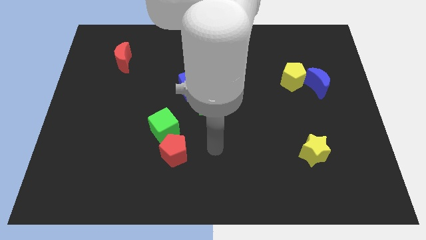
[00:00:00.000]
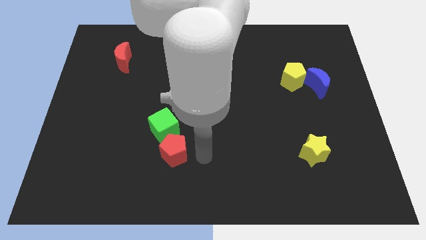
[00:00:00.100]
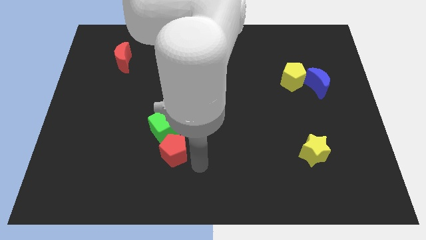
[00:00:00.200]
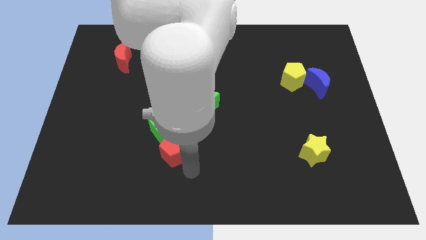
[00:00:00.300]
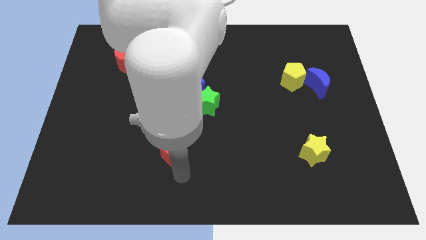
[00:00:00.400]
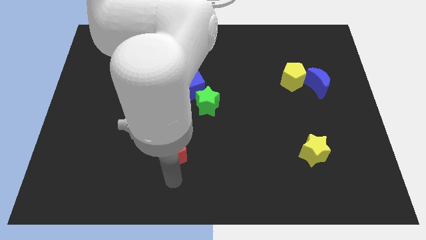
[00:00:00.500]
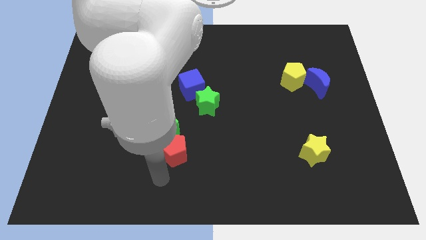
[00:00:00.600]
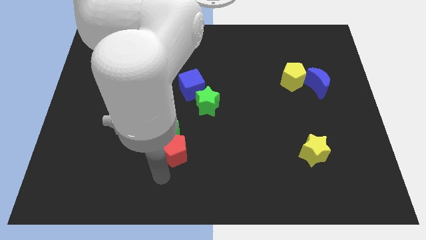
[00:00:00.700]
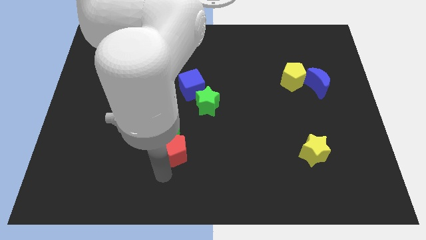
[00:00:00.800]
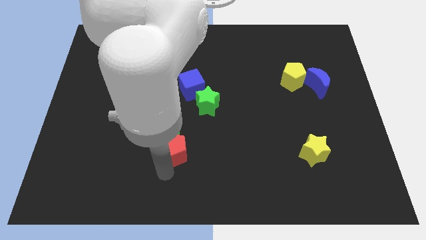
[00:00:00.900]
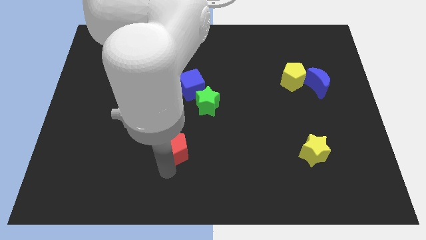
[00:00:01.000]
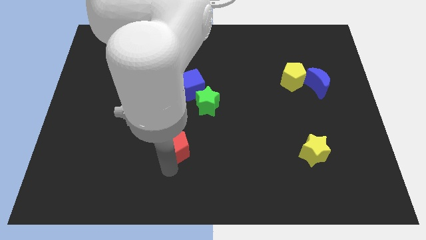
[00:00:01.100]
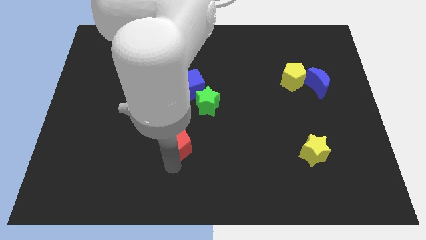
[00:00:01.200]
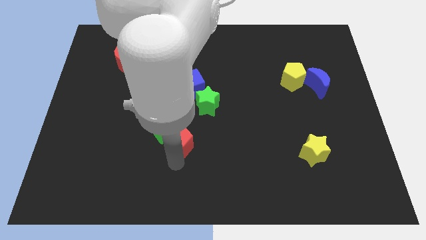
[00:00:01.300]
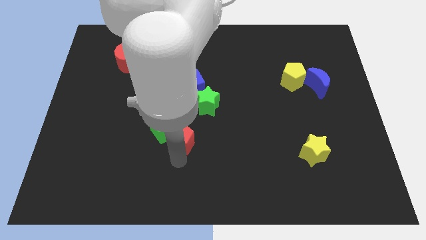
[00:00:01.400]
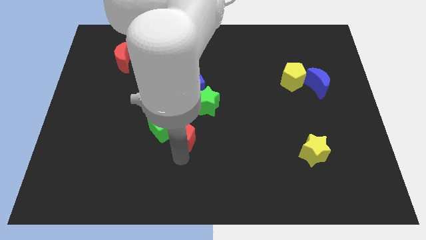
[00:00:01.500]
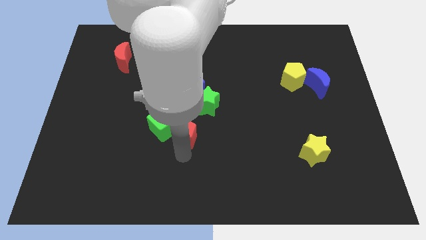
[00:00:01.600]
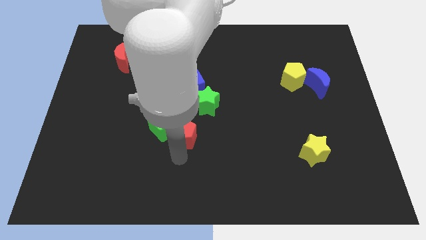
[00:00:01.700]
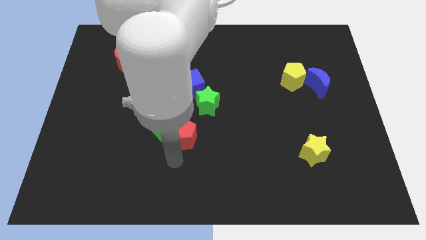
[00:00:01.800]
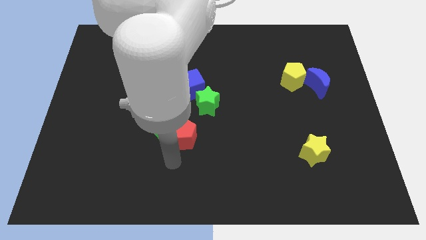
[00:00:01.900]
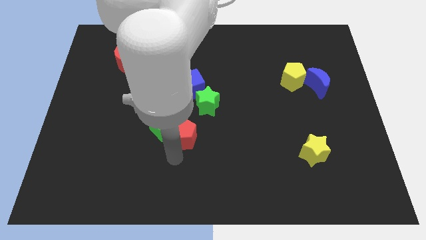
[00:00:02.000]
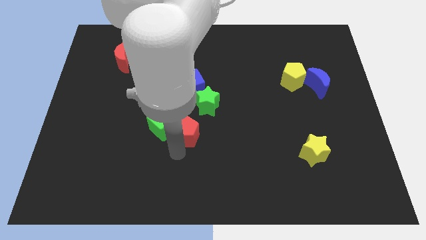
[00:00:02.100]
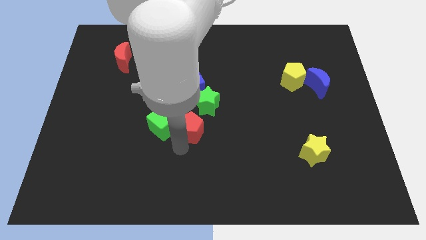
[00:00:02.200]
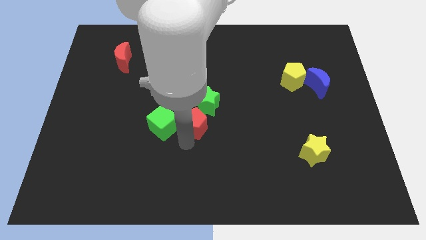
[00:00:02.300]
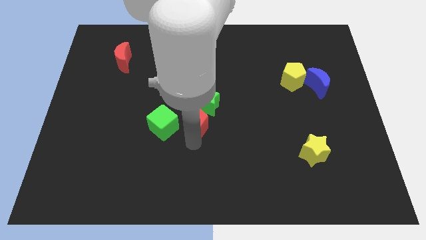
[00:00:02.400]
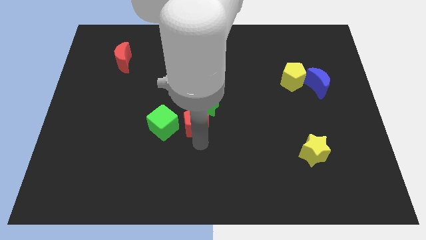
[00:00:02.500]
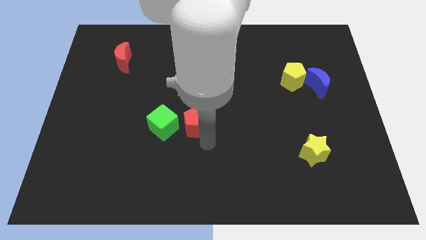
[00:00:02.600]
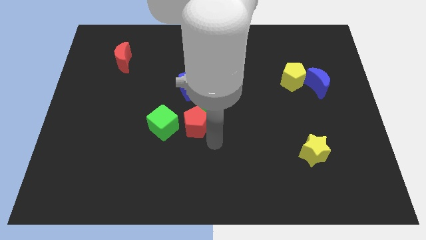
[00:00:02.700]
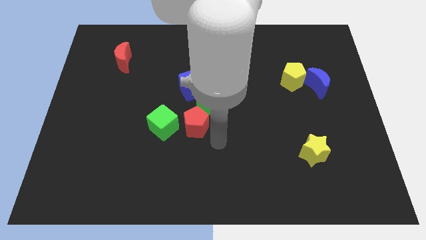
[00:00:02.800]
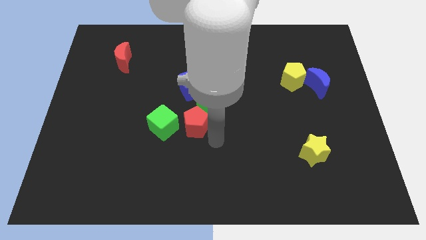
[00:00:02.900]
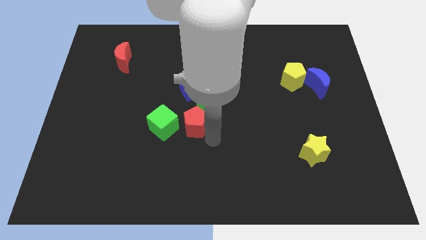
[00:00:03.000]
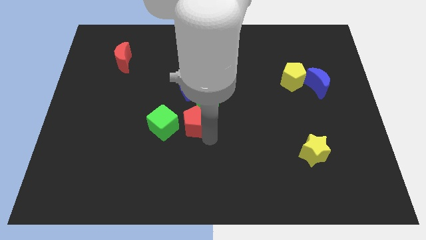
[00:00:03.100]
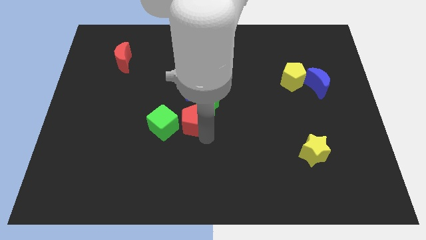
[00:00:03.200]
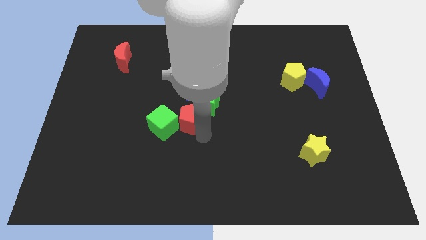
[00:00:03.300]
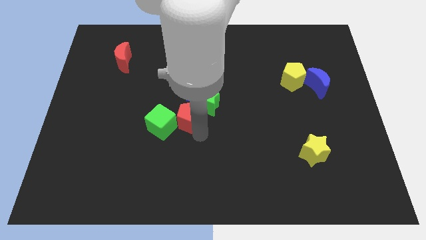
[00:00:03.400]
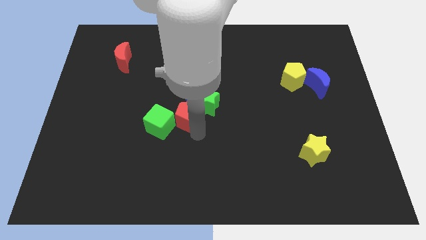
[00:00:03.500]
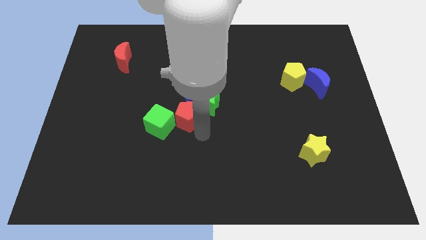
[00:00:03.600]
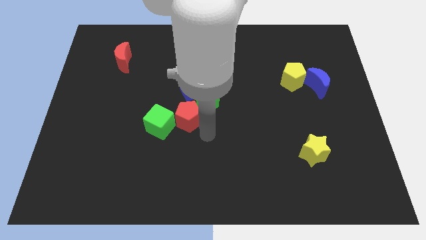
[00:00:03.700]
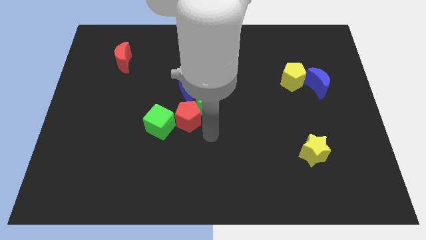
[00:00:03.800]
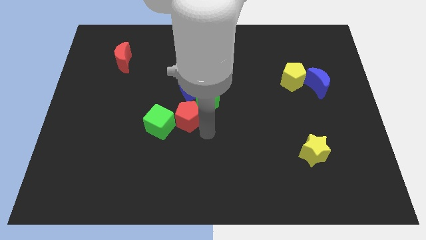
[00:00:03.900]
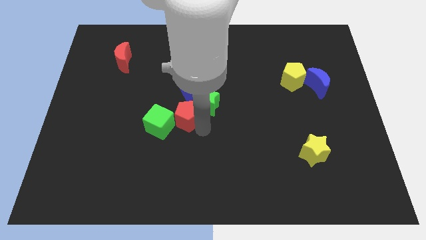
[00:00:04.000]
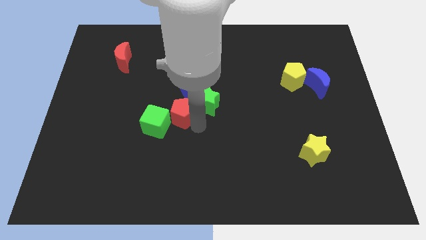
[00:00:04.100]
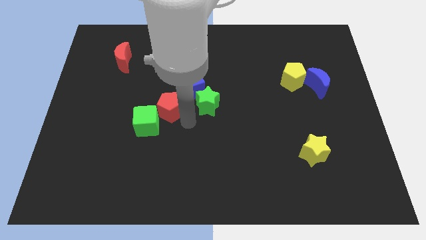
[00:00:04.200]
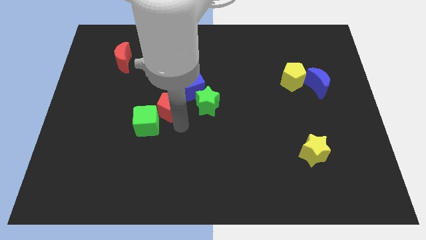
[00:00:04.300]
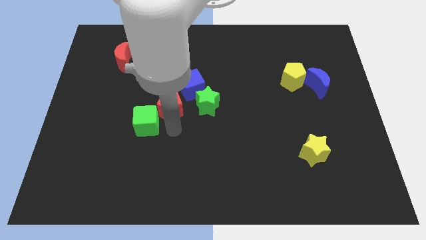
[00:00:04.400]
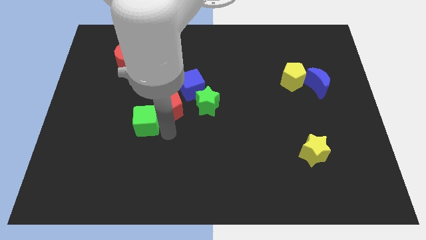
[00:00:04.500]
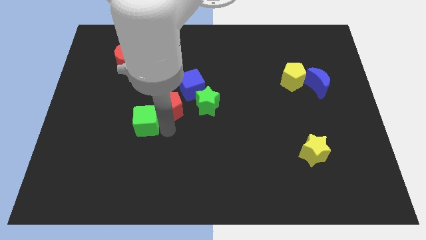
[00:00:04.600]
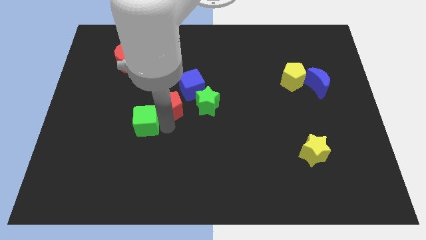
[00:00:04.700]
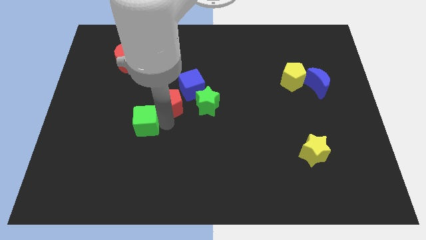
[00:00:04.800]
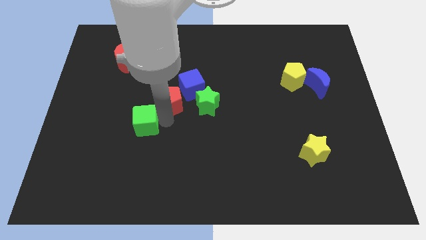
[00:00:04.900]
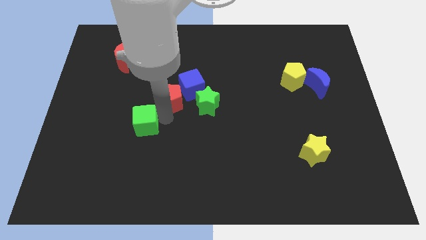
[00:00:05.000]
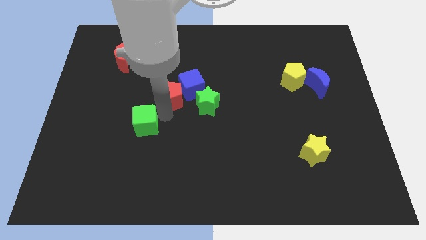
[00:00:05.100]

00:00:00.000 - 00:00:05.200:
move the red pentagon to the top left side of the green star

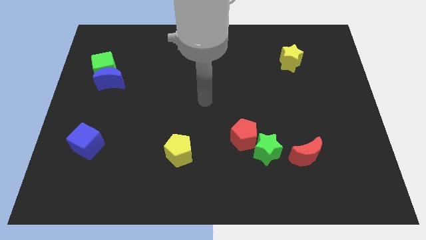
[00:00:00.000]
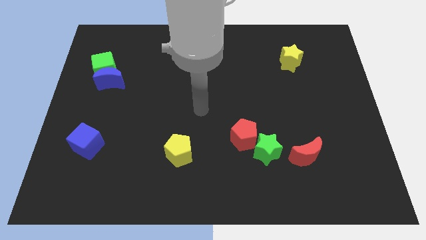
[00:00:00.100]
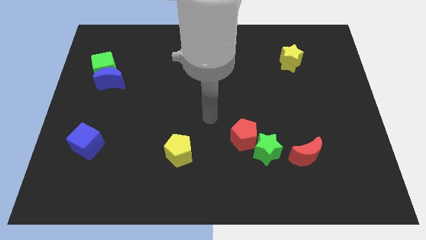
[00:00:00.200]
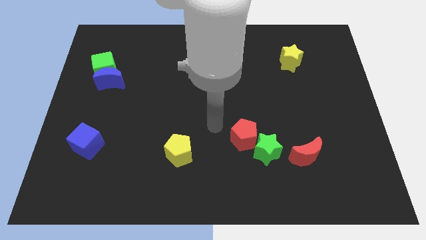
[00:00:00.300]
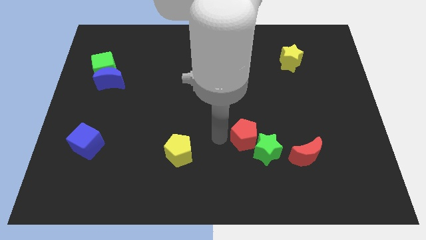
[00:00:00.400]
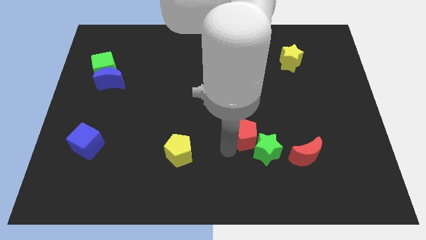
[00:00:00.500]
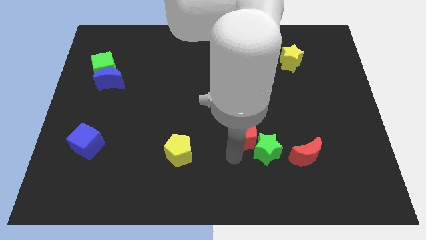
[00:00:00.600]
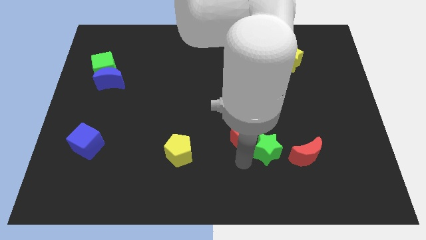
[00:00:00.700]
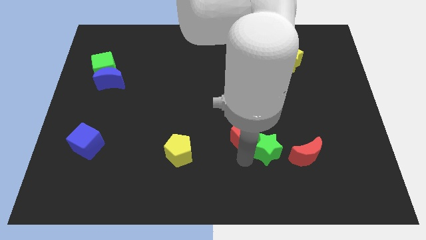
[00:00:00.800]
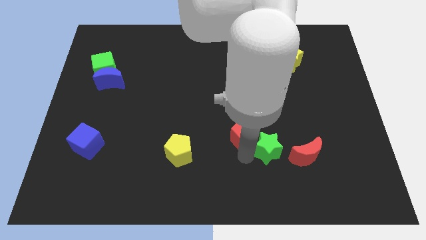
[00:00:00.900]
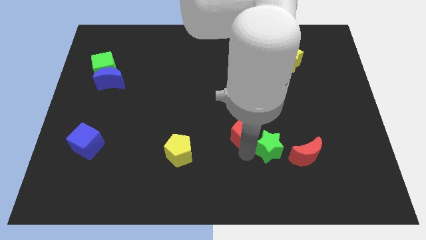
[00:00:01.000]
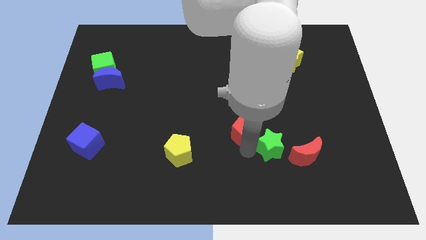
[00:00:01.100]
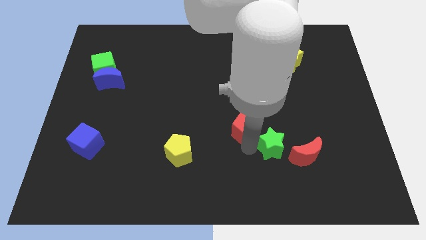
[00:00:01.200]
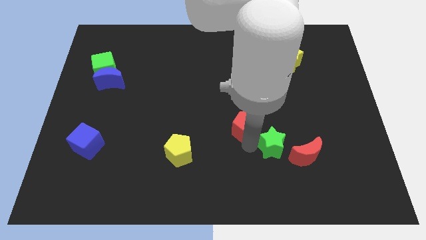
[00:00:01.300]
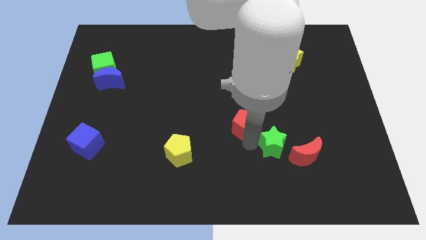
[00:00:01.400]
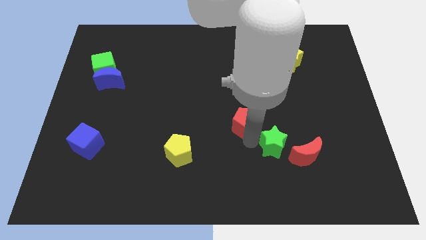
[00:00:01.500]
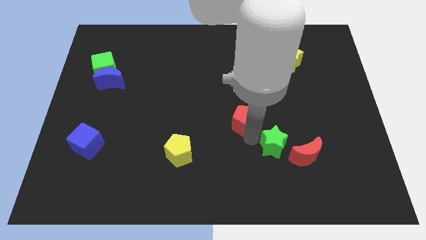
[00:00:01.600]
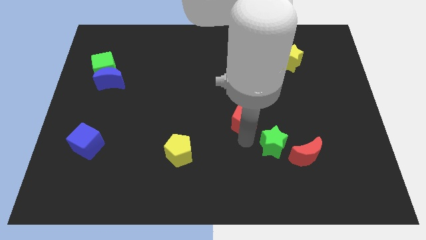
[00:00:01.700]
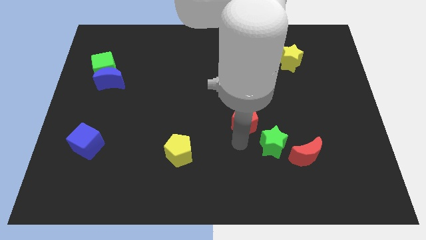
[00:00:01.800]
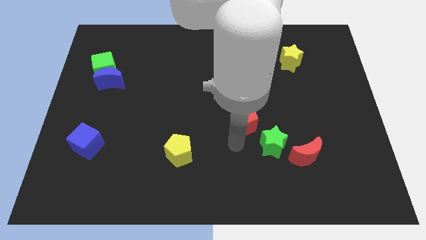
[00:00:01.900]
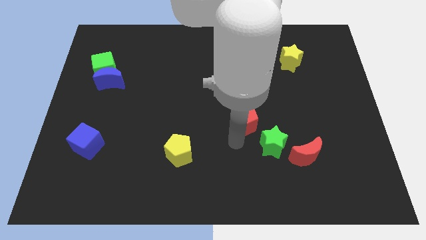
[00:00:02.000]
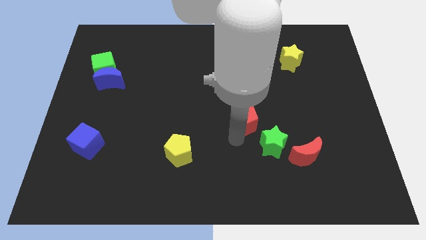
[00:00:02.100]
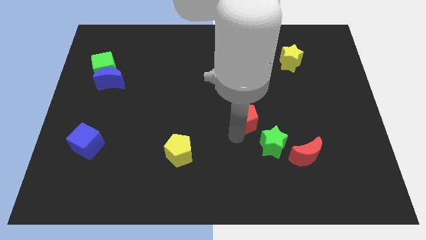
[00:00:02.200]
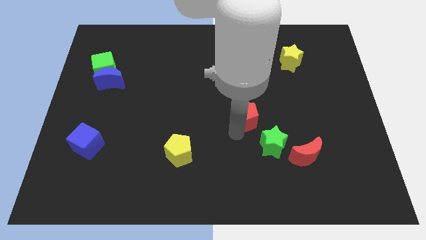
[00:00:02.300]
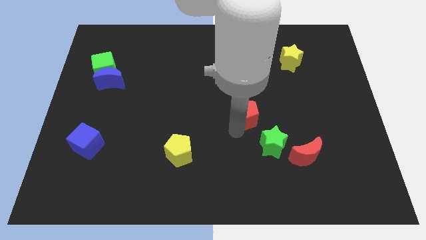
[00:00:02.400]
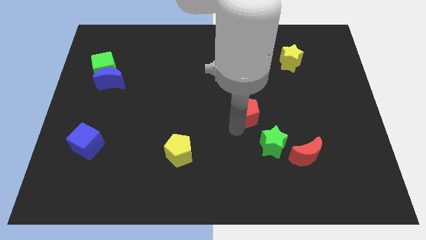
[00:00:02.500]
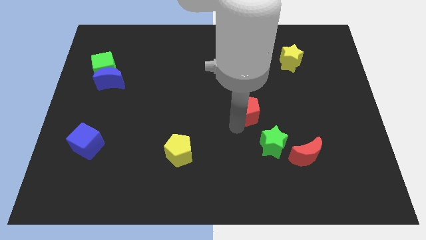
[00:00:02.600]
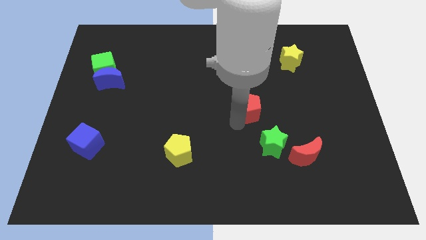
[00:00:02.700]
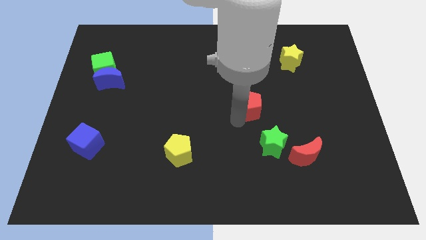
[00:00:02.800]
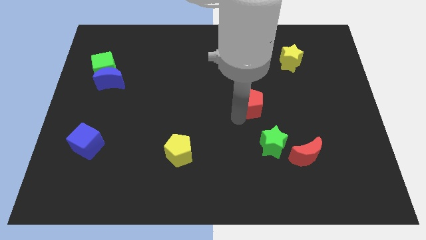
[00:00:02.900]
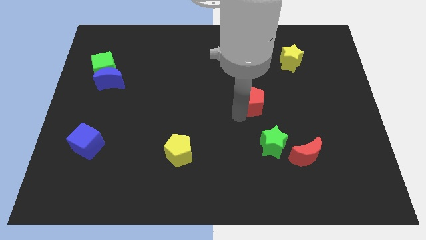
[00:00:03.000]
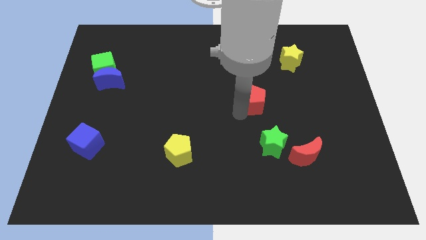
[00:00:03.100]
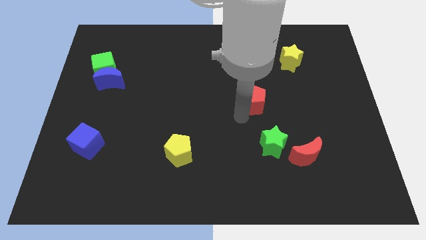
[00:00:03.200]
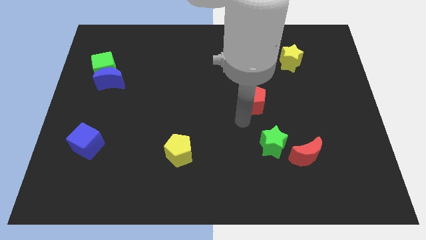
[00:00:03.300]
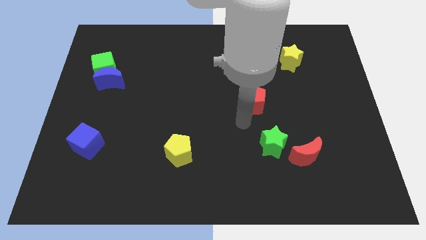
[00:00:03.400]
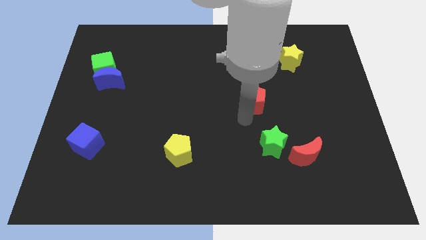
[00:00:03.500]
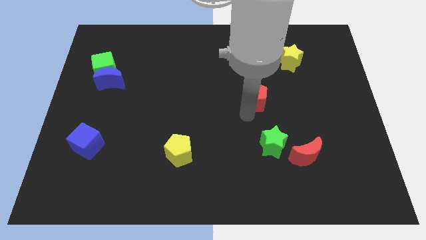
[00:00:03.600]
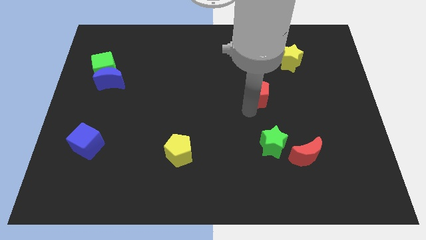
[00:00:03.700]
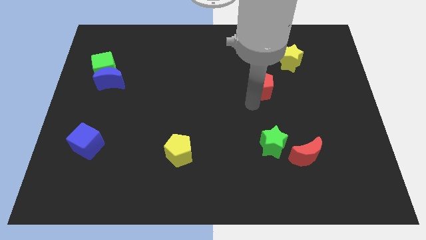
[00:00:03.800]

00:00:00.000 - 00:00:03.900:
move the red pentagon diagonally down and to the left of the yellow star
